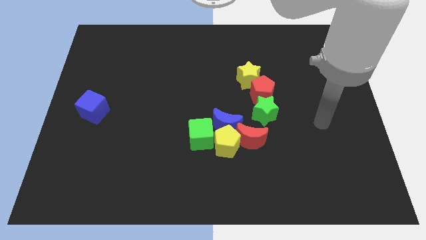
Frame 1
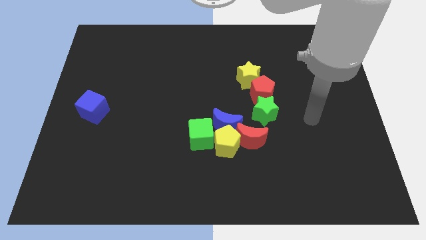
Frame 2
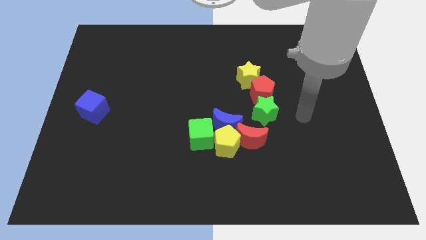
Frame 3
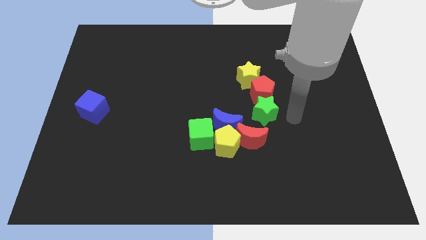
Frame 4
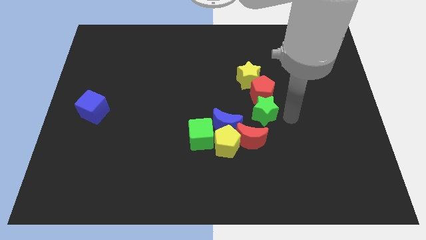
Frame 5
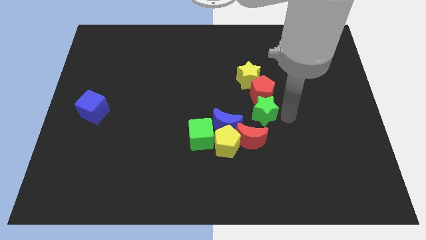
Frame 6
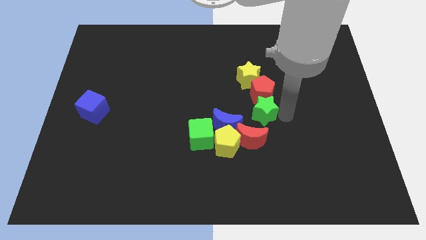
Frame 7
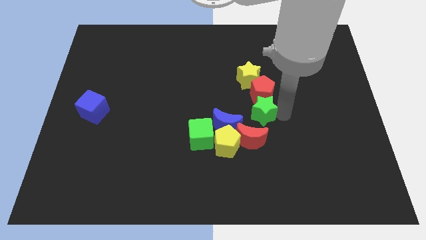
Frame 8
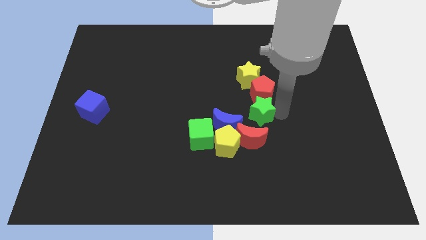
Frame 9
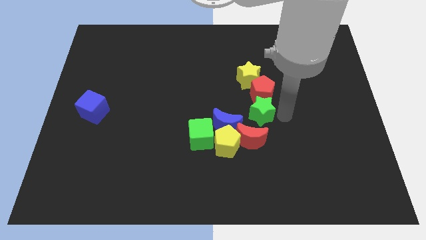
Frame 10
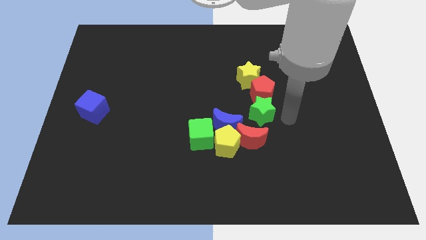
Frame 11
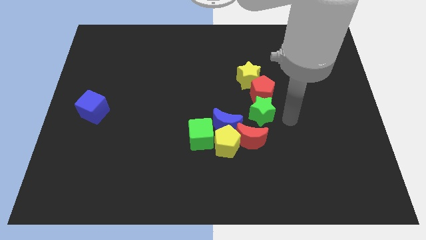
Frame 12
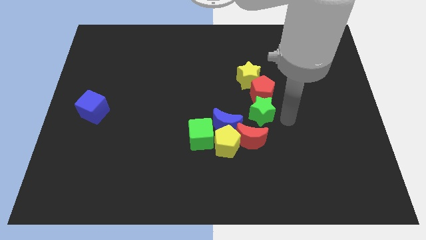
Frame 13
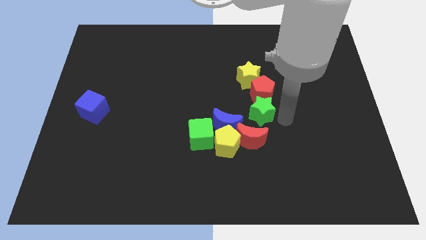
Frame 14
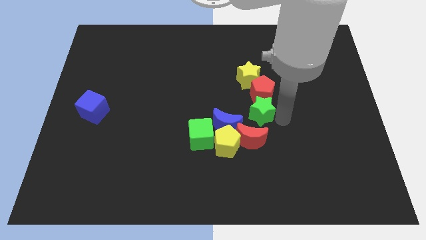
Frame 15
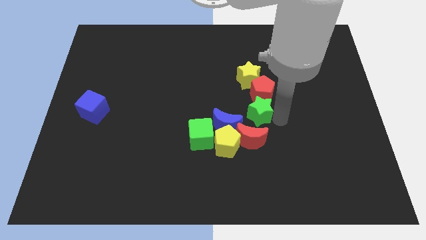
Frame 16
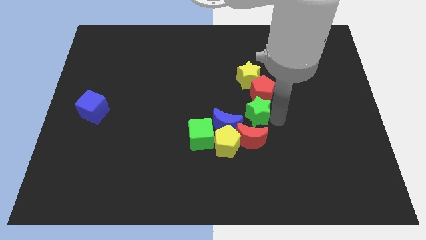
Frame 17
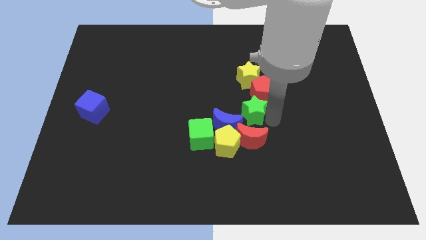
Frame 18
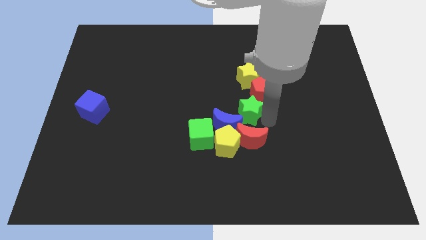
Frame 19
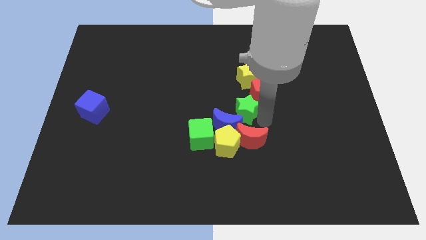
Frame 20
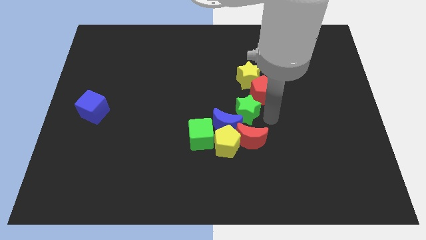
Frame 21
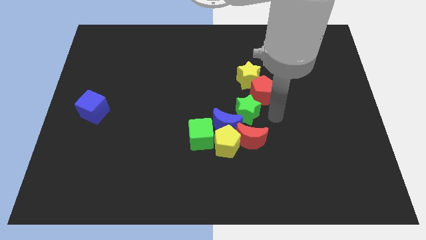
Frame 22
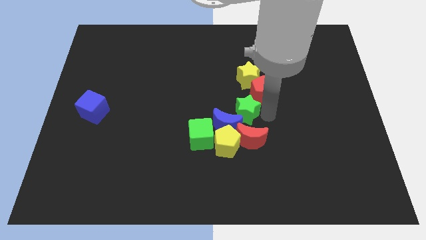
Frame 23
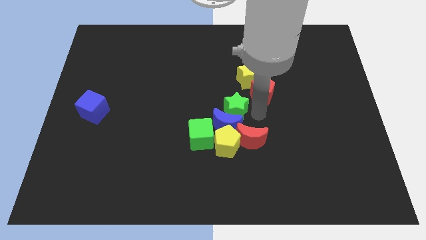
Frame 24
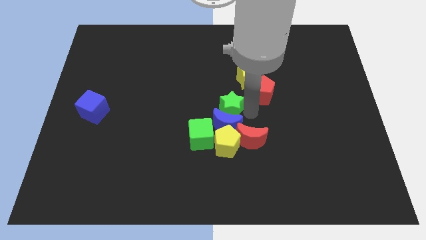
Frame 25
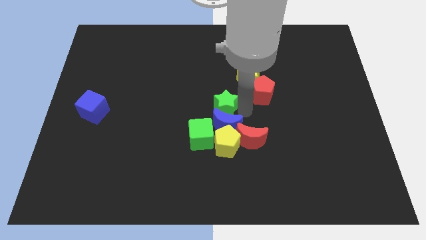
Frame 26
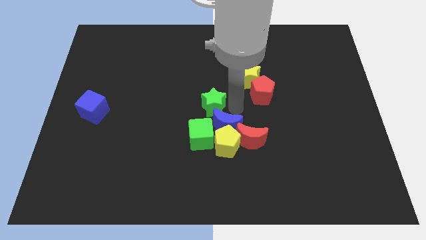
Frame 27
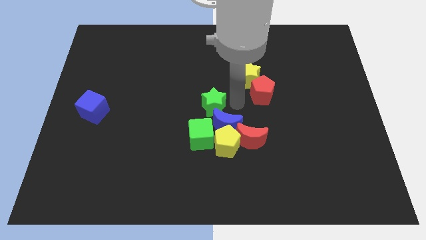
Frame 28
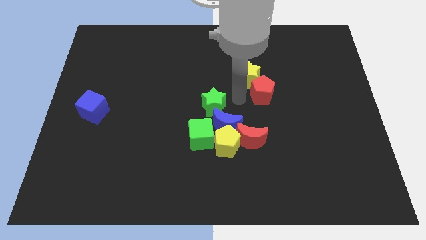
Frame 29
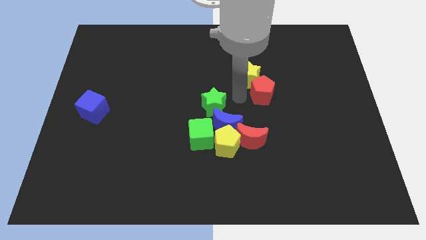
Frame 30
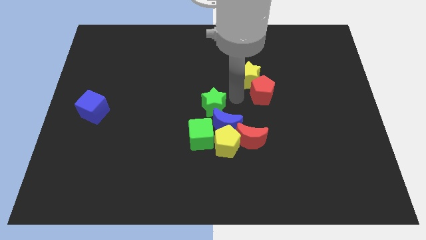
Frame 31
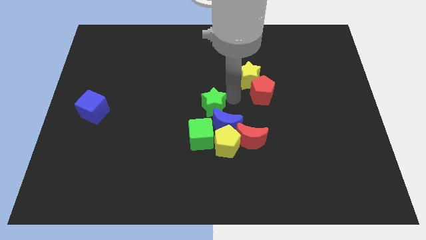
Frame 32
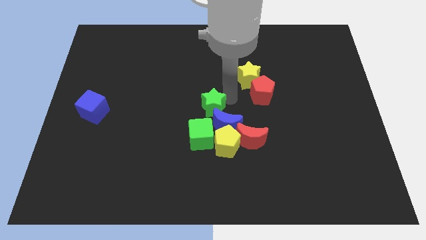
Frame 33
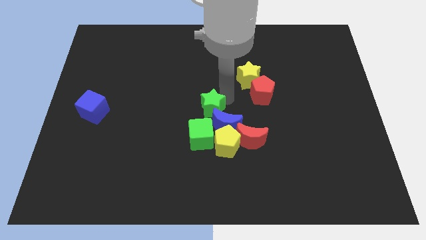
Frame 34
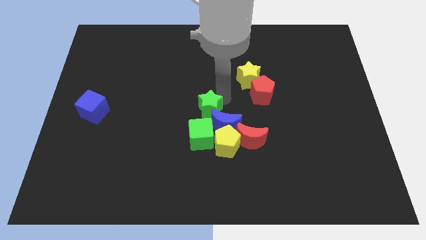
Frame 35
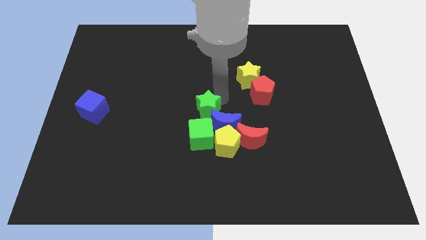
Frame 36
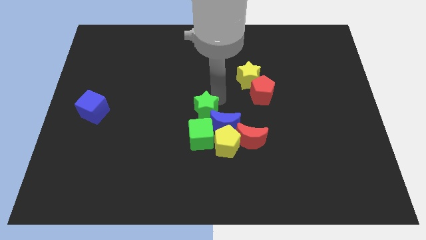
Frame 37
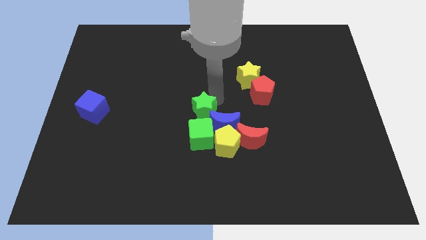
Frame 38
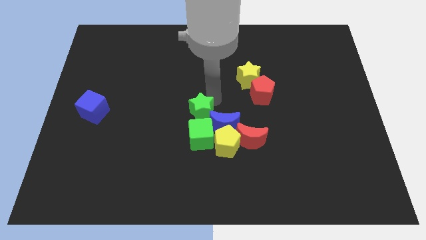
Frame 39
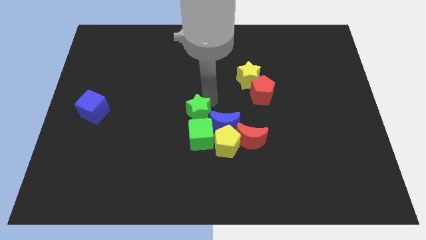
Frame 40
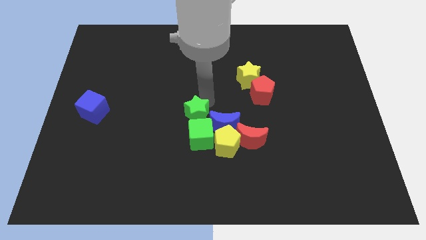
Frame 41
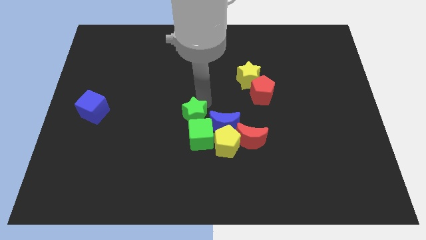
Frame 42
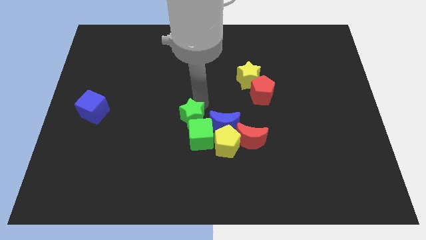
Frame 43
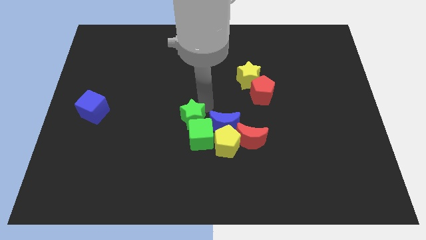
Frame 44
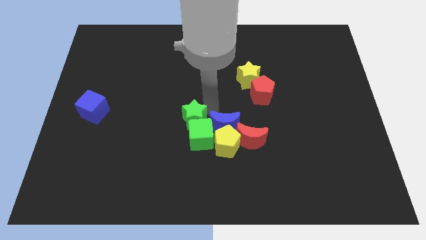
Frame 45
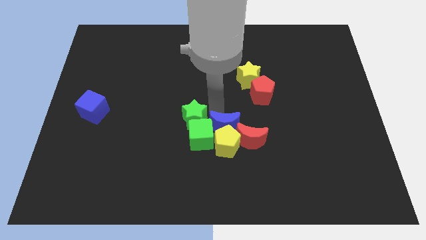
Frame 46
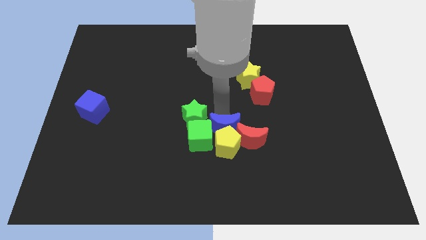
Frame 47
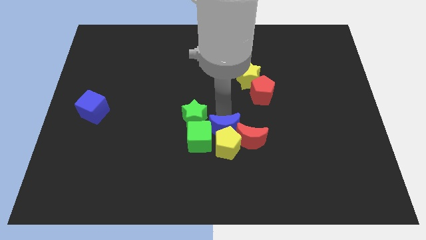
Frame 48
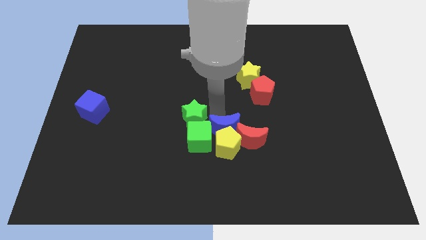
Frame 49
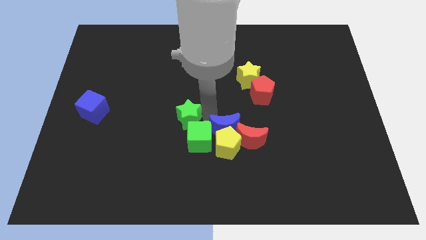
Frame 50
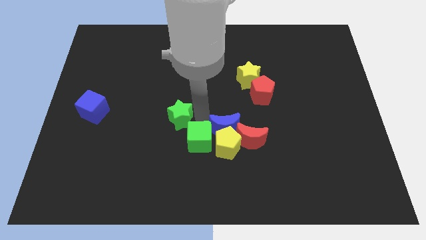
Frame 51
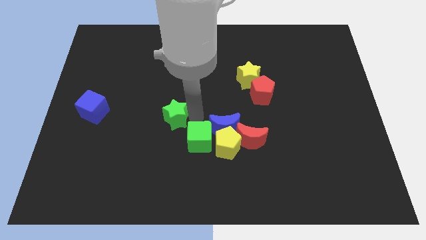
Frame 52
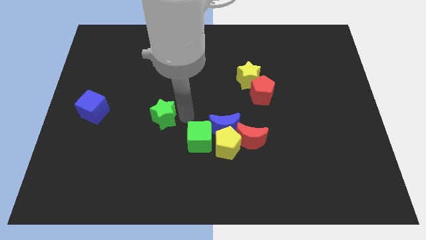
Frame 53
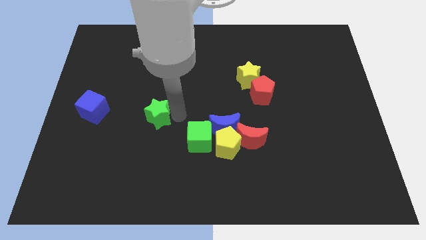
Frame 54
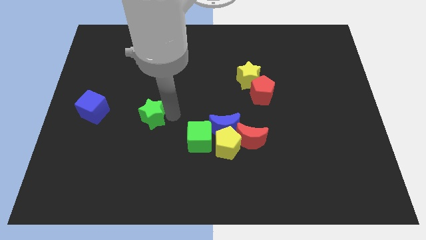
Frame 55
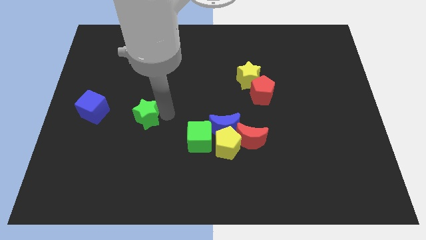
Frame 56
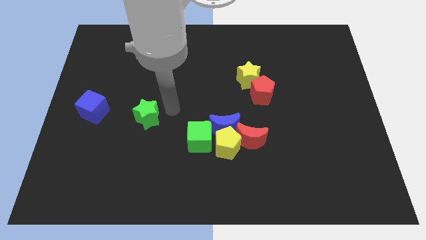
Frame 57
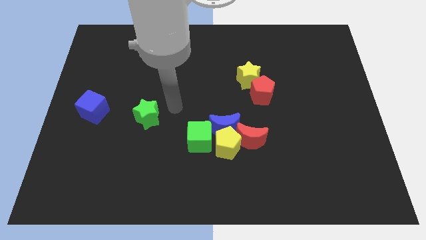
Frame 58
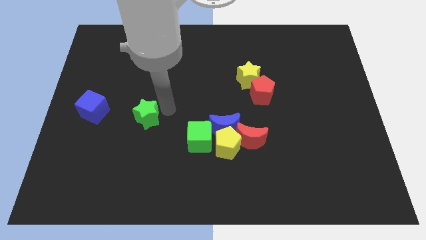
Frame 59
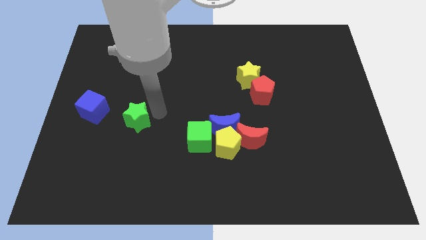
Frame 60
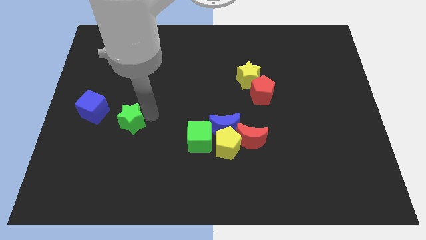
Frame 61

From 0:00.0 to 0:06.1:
move the green star to the bottom right side of the blue cube

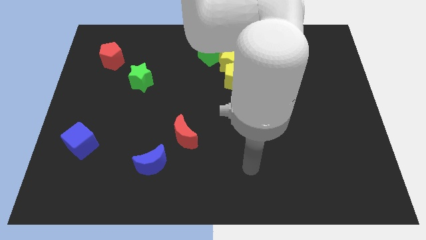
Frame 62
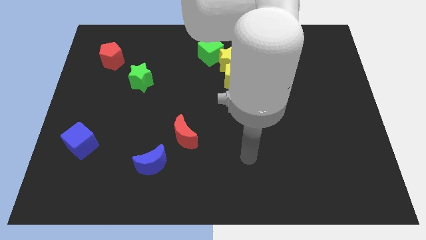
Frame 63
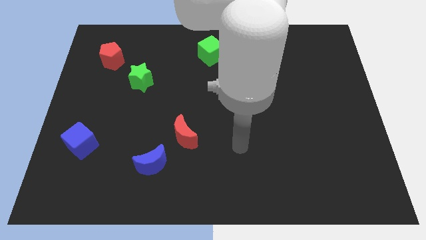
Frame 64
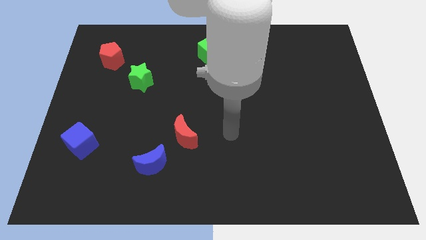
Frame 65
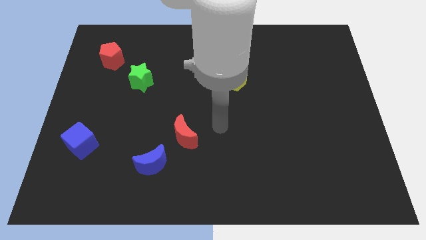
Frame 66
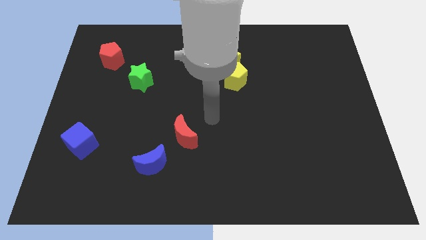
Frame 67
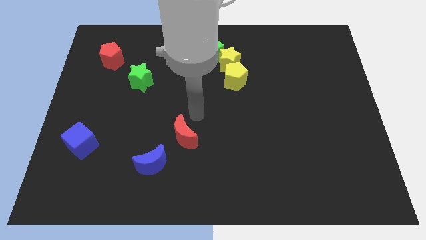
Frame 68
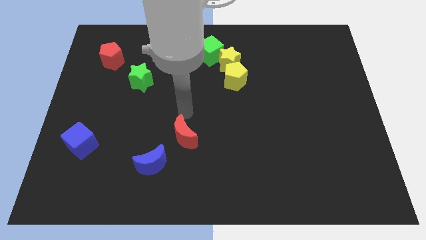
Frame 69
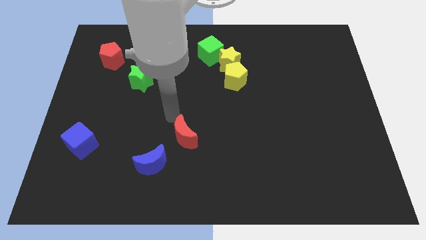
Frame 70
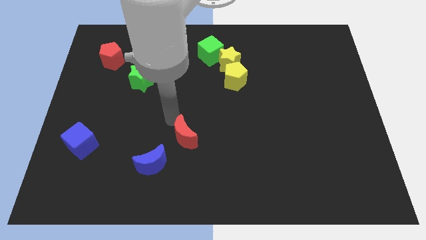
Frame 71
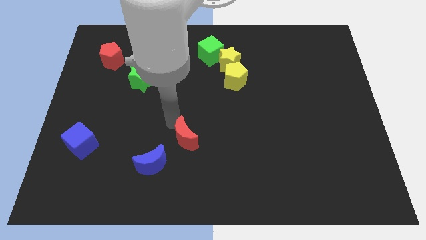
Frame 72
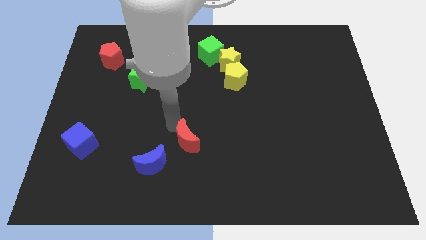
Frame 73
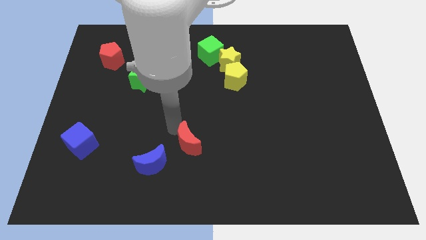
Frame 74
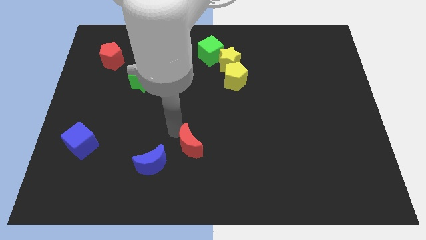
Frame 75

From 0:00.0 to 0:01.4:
put the red moon just right of the blue moon
